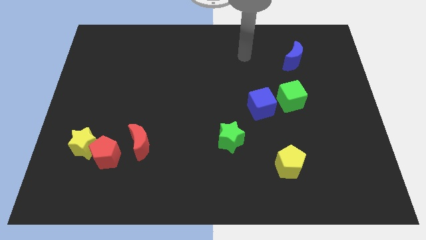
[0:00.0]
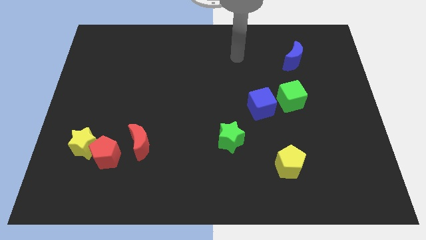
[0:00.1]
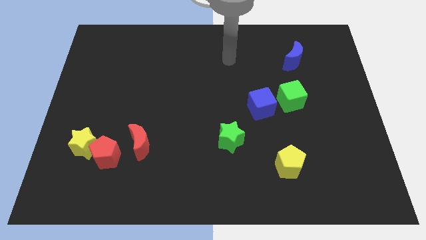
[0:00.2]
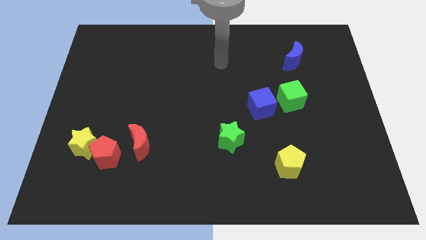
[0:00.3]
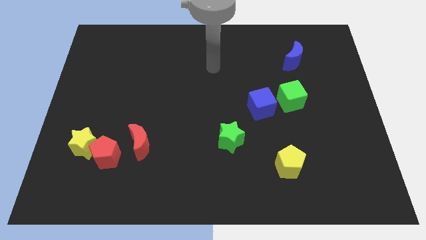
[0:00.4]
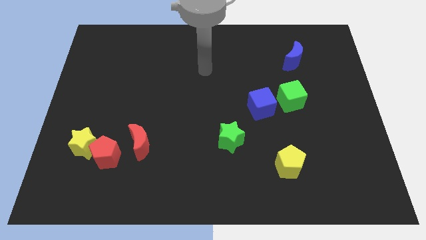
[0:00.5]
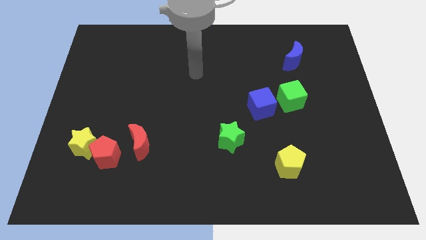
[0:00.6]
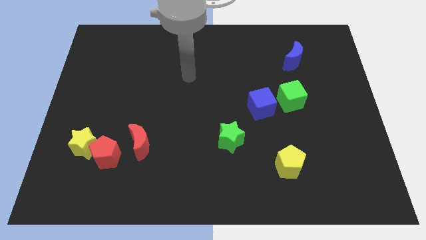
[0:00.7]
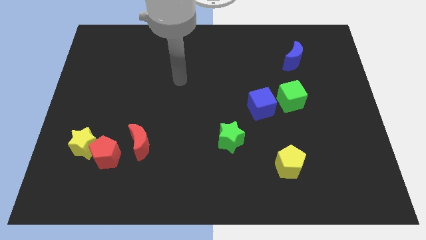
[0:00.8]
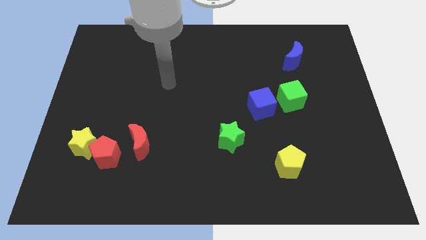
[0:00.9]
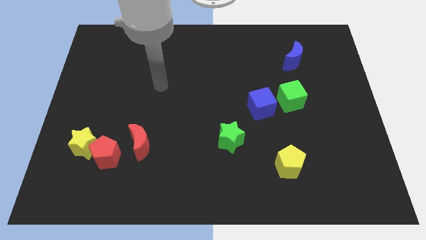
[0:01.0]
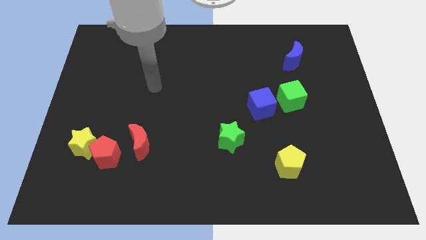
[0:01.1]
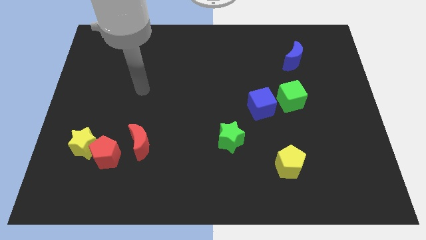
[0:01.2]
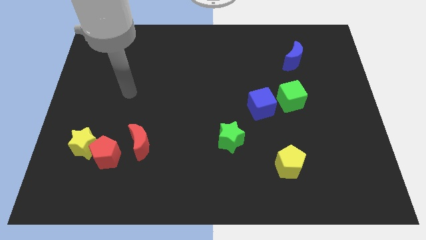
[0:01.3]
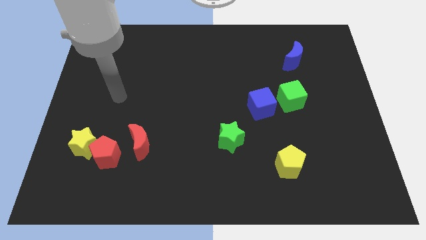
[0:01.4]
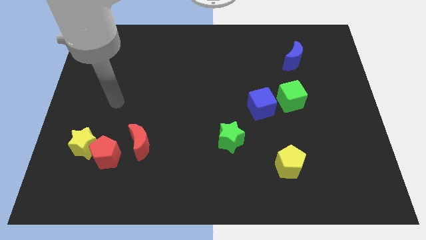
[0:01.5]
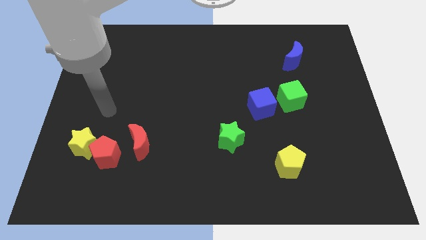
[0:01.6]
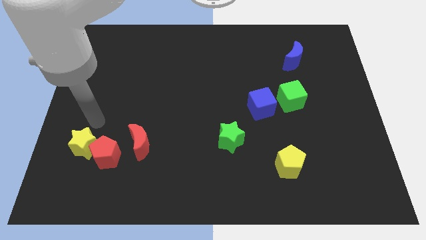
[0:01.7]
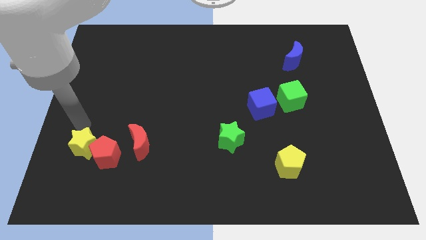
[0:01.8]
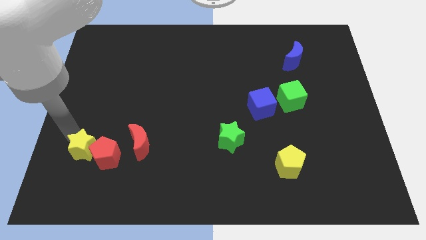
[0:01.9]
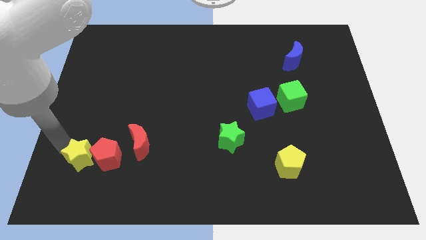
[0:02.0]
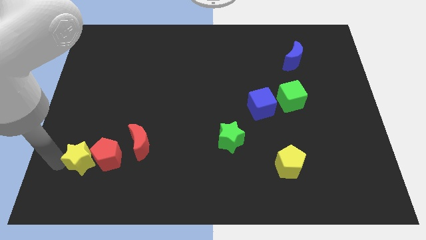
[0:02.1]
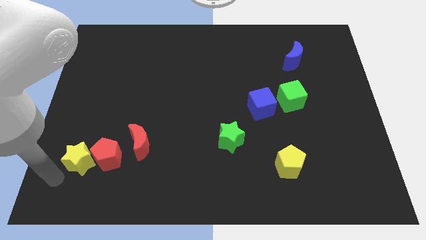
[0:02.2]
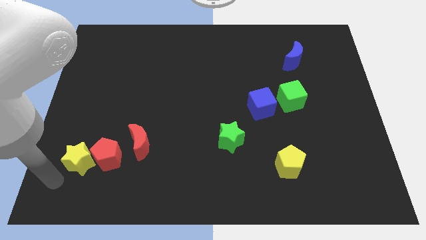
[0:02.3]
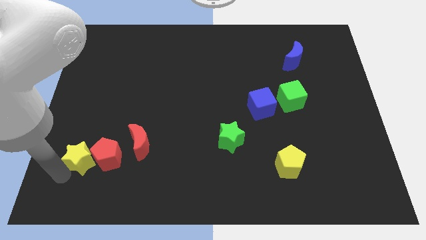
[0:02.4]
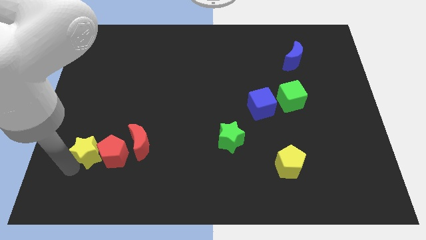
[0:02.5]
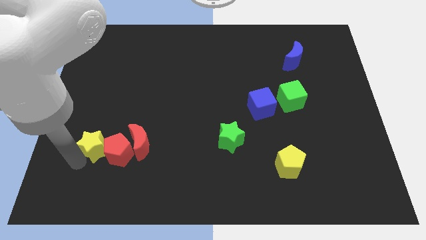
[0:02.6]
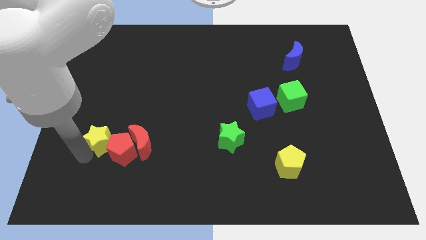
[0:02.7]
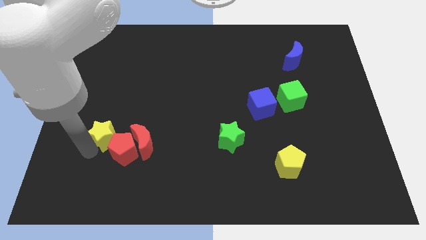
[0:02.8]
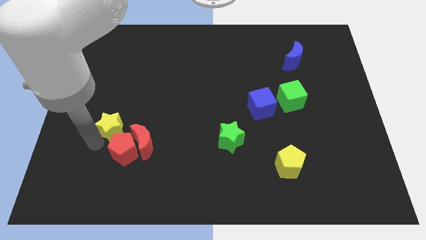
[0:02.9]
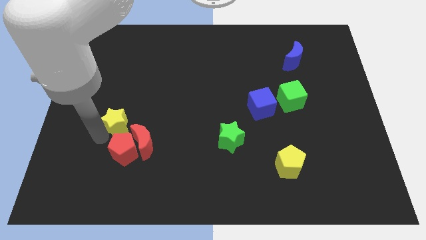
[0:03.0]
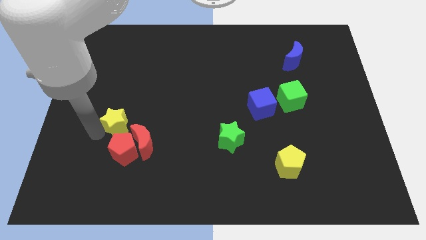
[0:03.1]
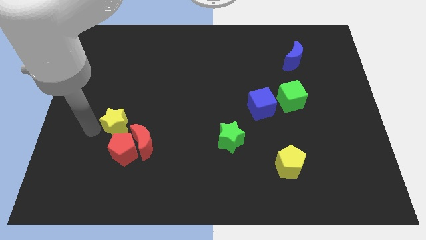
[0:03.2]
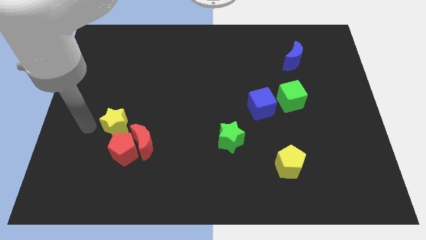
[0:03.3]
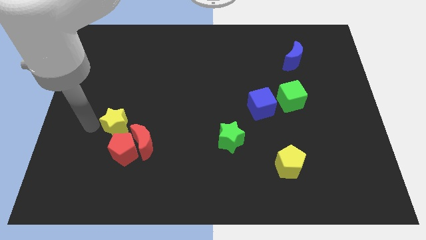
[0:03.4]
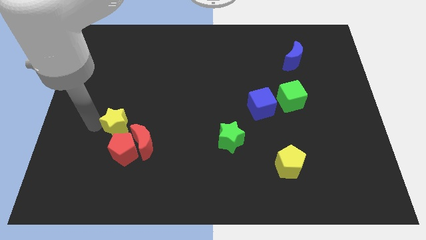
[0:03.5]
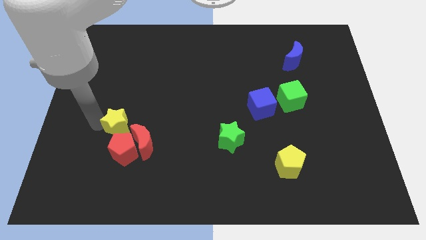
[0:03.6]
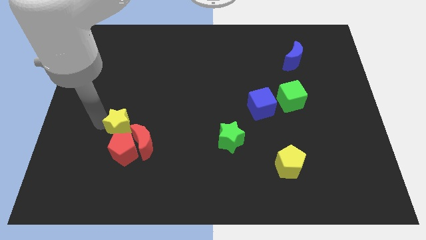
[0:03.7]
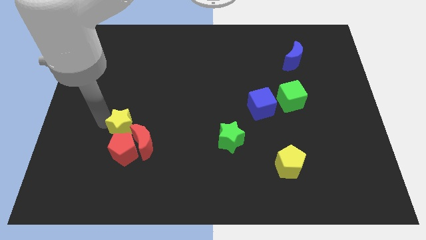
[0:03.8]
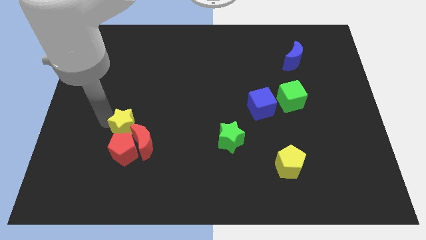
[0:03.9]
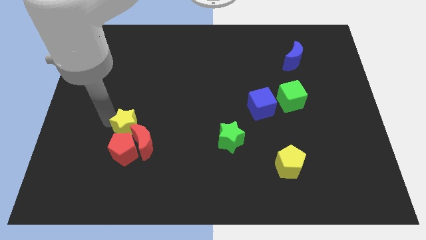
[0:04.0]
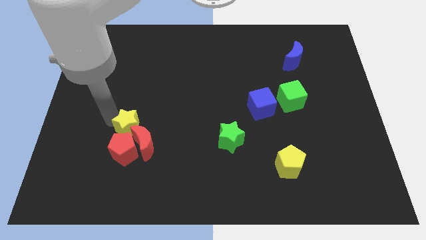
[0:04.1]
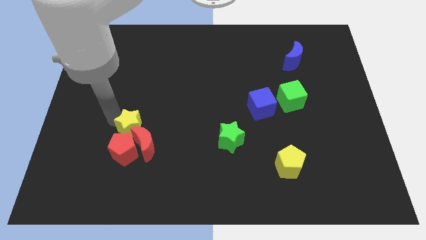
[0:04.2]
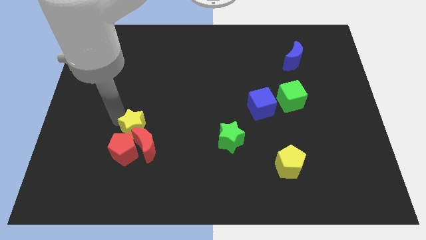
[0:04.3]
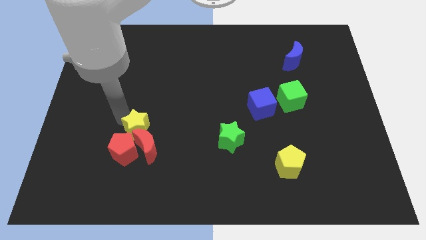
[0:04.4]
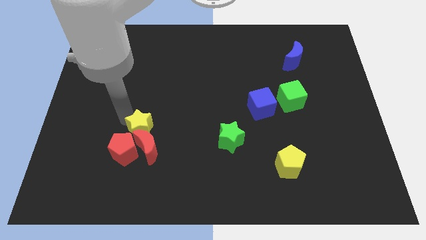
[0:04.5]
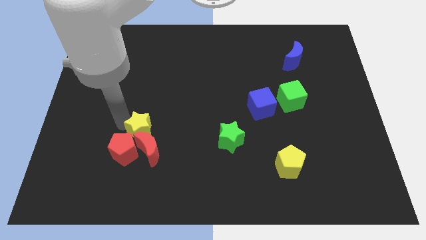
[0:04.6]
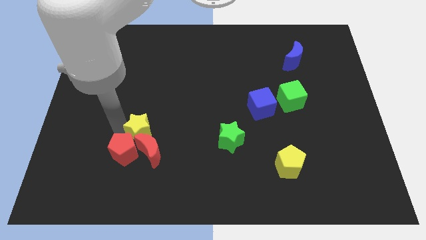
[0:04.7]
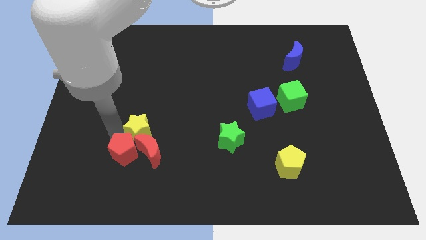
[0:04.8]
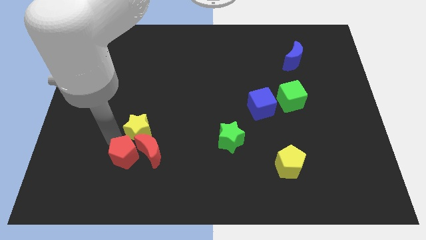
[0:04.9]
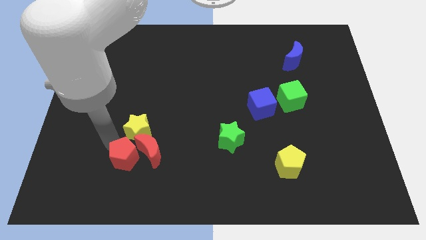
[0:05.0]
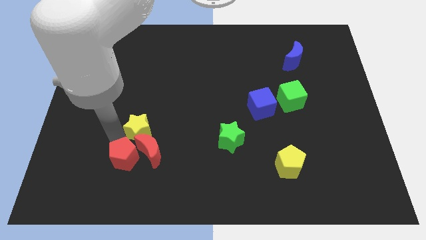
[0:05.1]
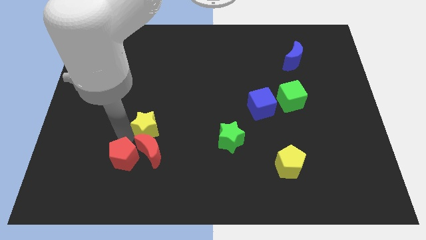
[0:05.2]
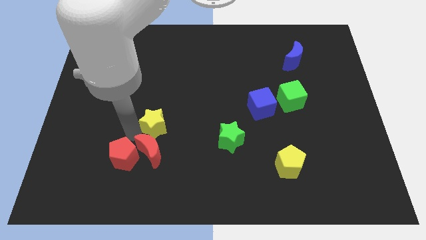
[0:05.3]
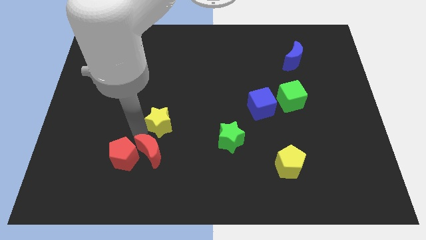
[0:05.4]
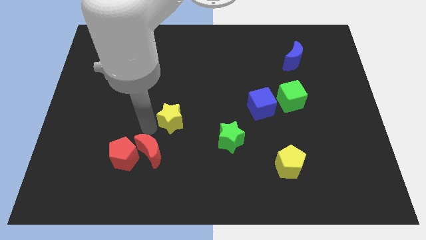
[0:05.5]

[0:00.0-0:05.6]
move the yellow star to the middle

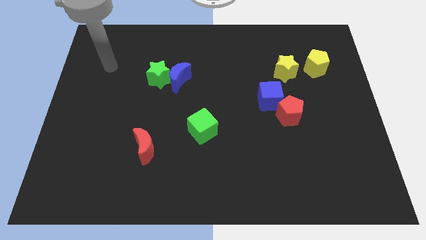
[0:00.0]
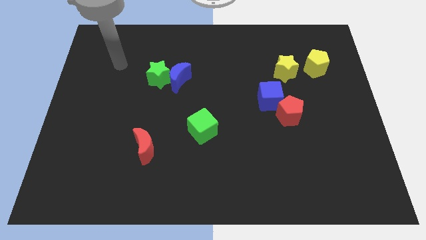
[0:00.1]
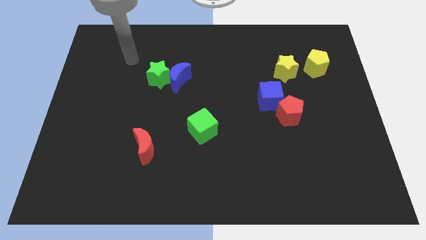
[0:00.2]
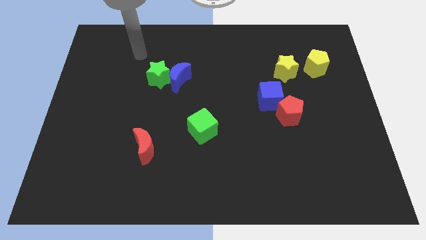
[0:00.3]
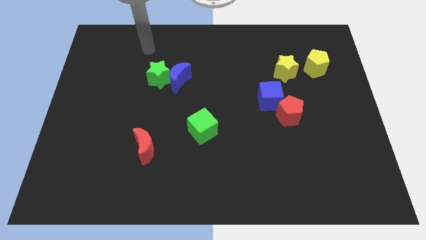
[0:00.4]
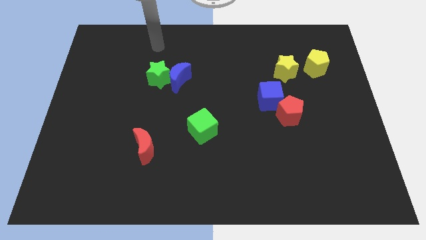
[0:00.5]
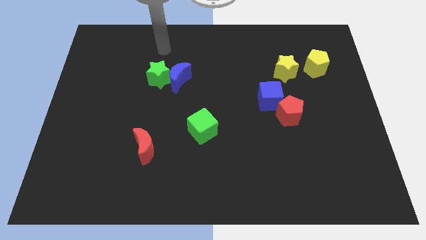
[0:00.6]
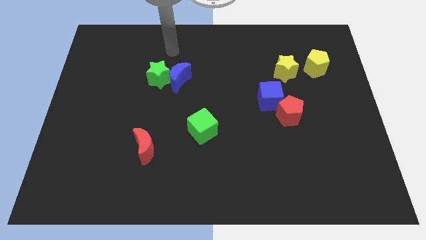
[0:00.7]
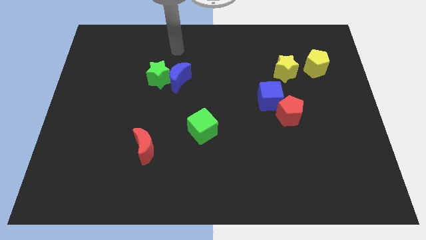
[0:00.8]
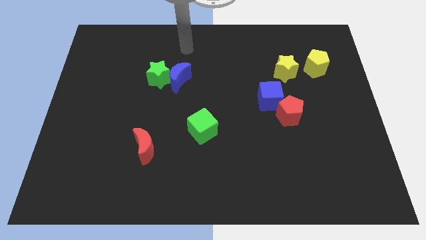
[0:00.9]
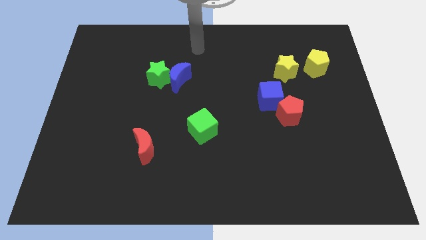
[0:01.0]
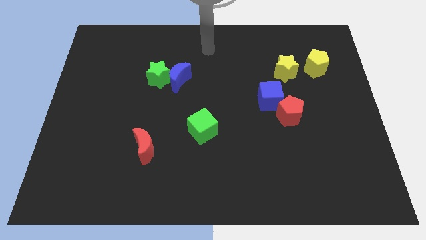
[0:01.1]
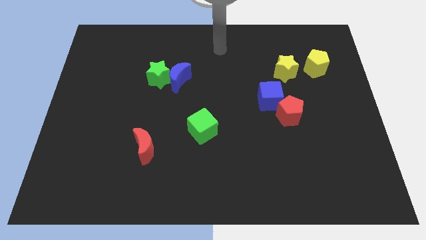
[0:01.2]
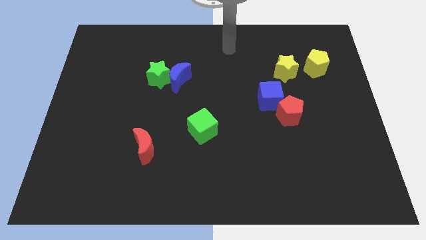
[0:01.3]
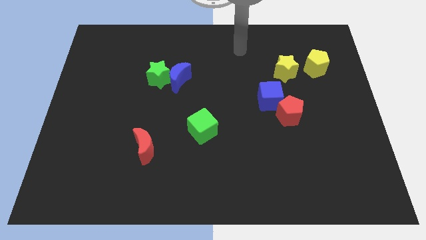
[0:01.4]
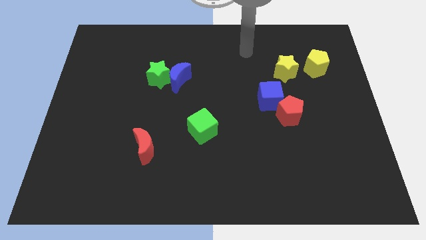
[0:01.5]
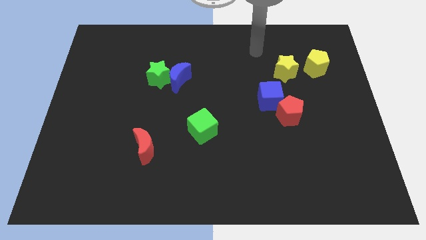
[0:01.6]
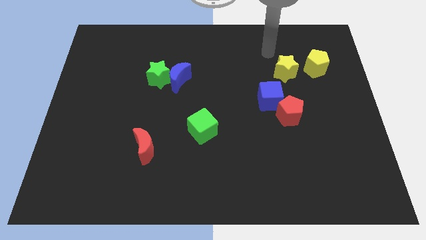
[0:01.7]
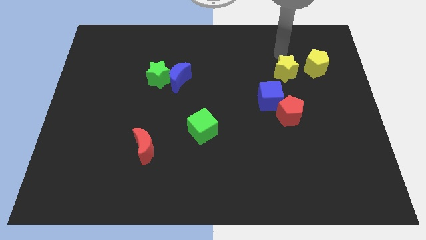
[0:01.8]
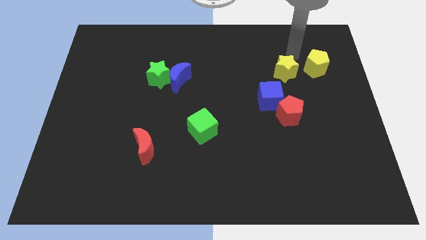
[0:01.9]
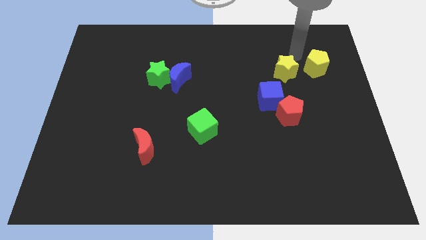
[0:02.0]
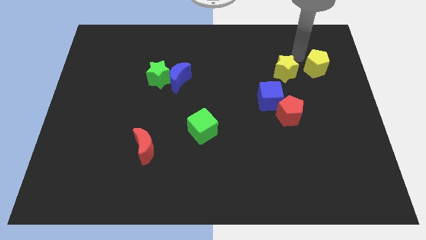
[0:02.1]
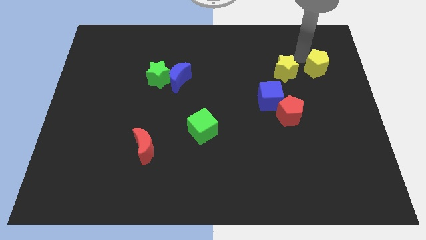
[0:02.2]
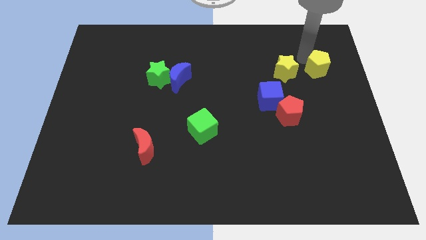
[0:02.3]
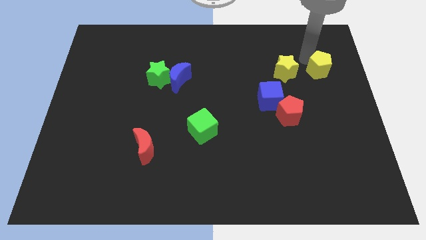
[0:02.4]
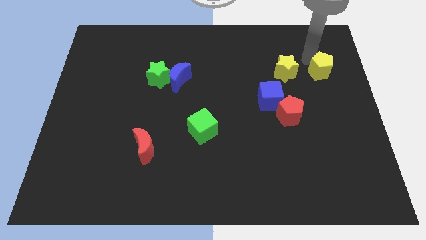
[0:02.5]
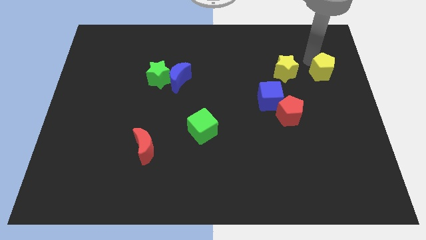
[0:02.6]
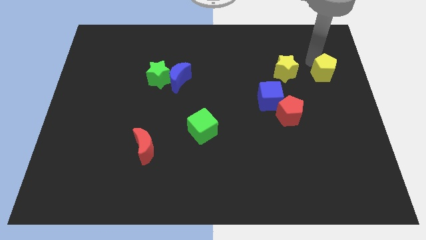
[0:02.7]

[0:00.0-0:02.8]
push the yellow pentagon to the right side of the board
